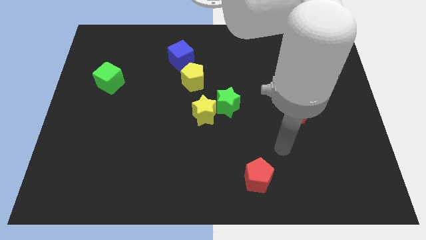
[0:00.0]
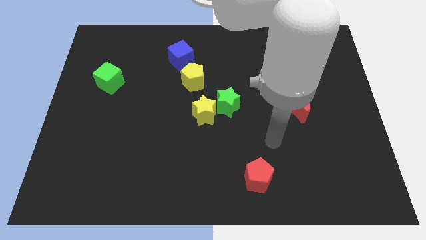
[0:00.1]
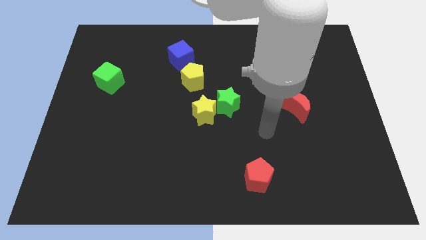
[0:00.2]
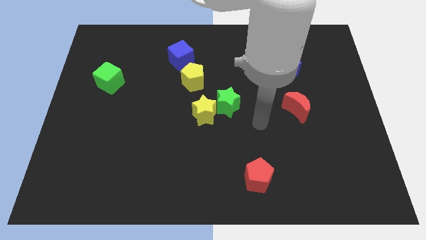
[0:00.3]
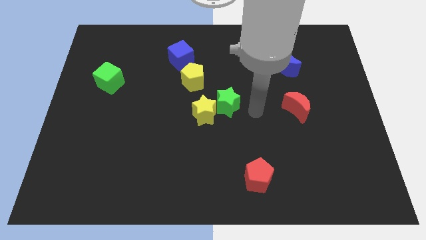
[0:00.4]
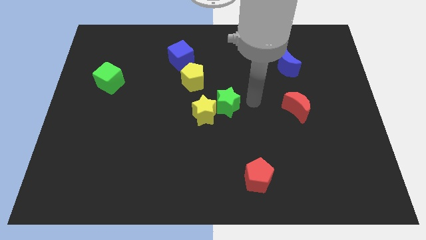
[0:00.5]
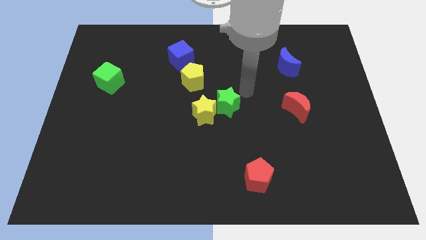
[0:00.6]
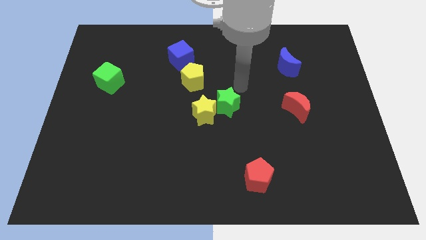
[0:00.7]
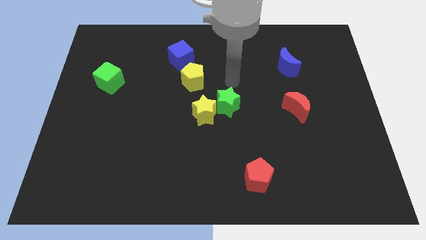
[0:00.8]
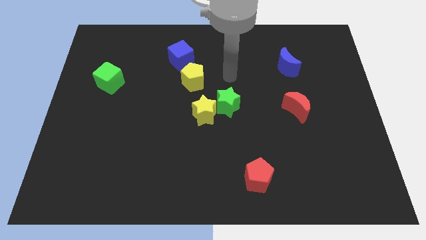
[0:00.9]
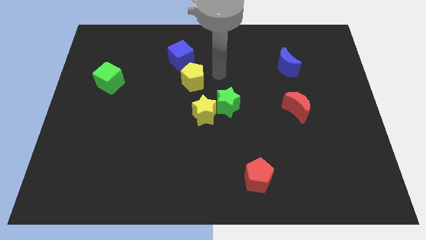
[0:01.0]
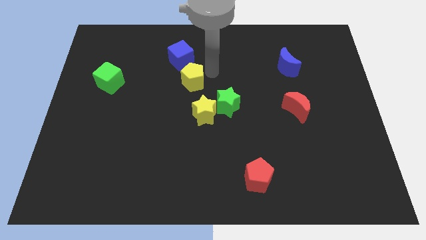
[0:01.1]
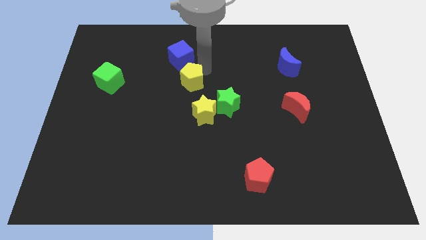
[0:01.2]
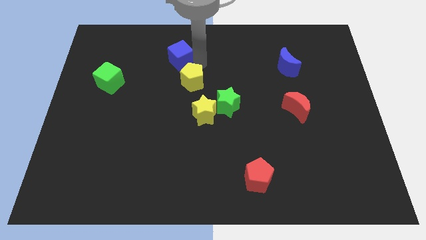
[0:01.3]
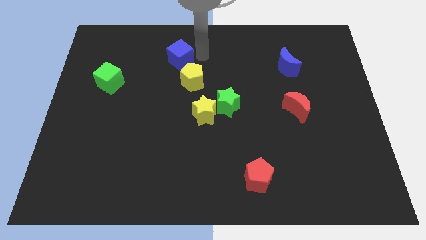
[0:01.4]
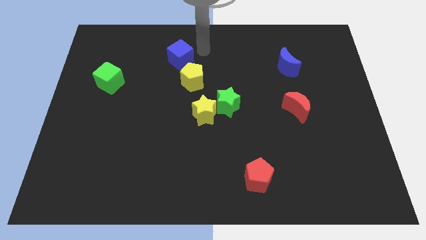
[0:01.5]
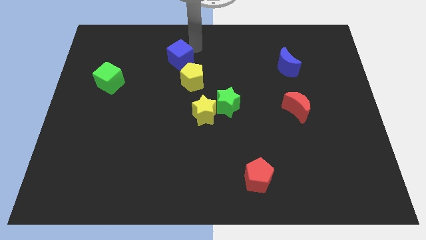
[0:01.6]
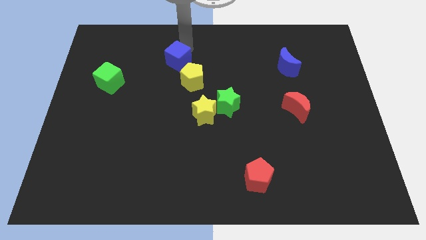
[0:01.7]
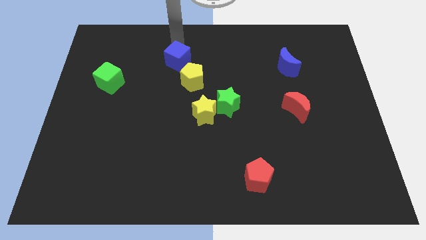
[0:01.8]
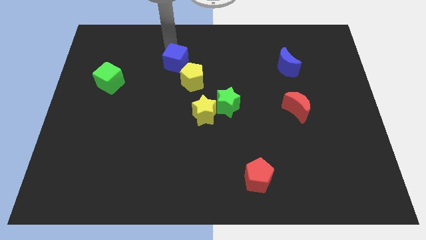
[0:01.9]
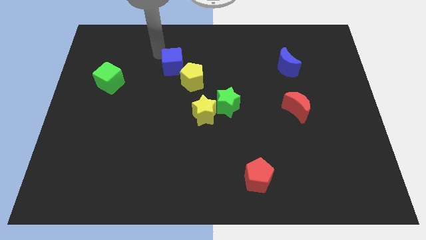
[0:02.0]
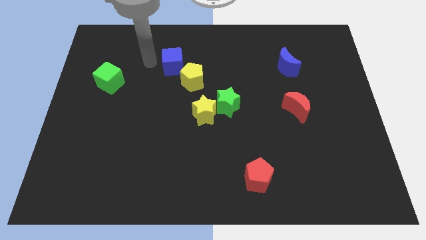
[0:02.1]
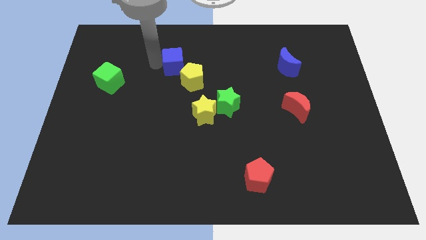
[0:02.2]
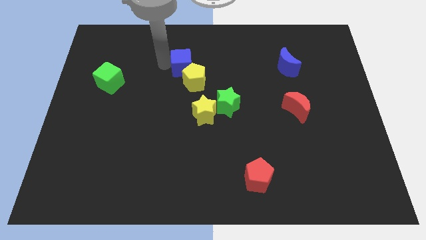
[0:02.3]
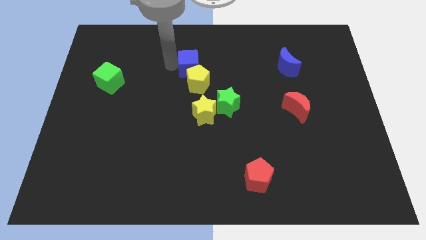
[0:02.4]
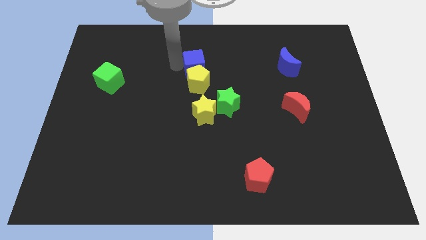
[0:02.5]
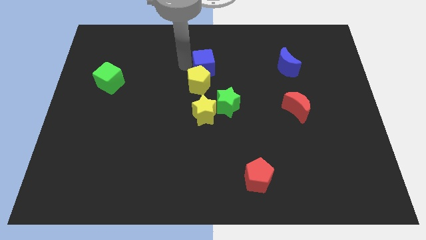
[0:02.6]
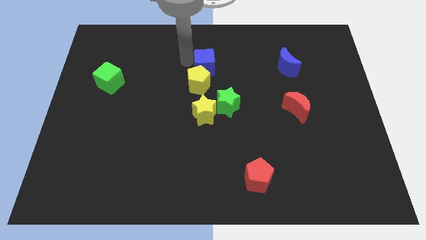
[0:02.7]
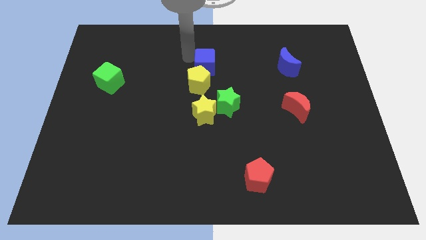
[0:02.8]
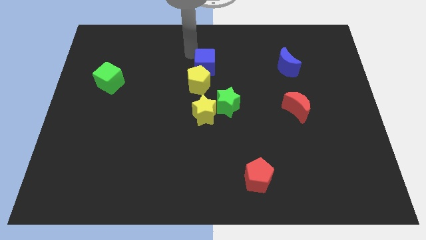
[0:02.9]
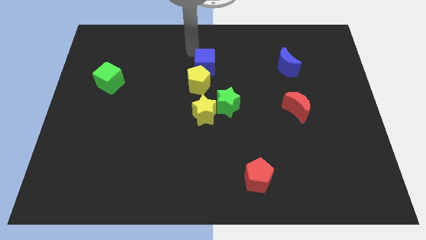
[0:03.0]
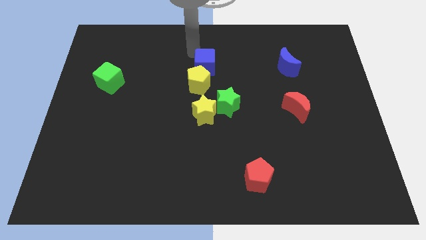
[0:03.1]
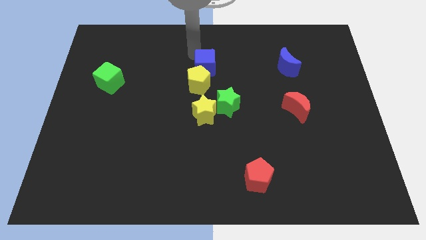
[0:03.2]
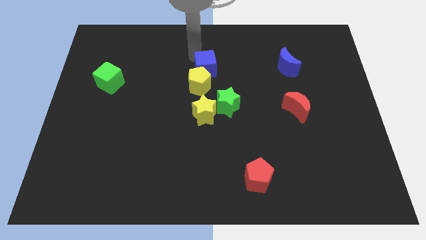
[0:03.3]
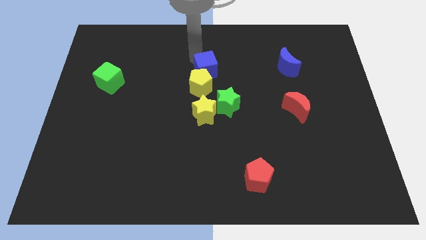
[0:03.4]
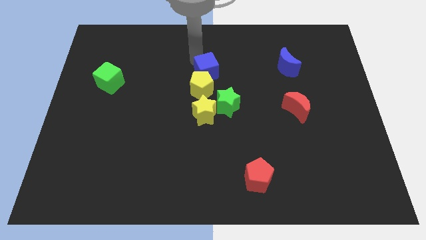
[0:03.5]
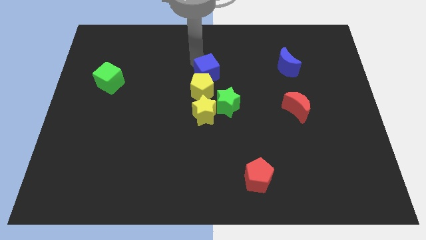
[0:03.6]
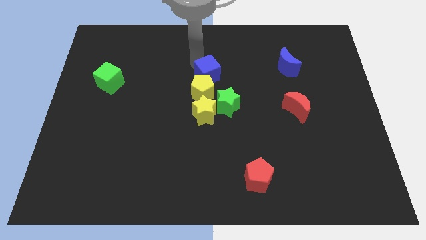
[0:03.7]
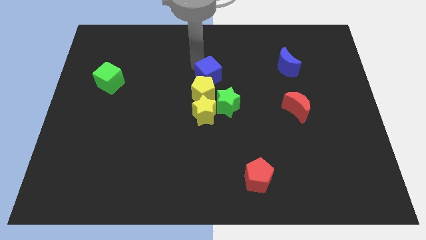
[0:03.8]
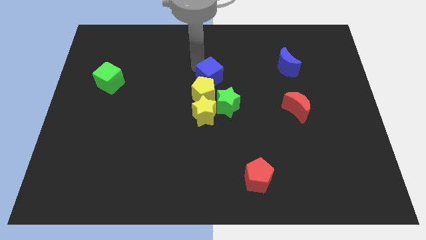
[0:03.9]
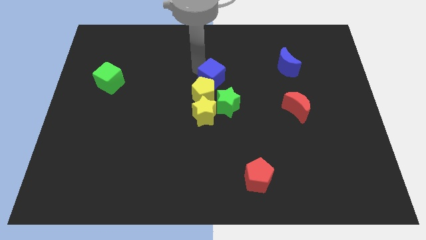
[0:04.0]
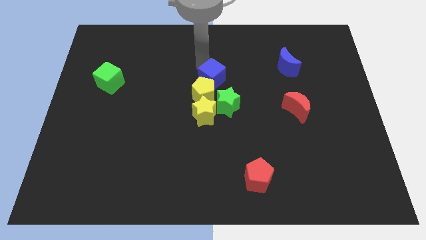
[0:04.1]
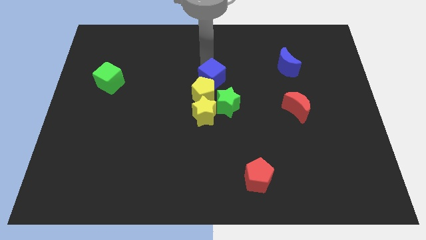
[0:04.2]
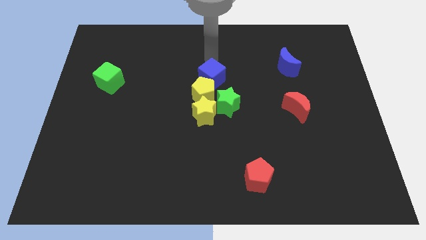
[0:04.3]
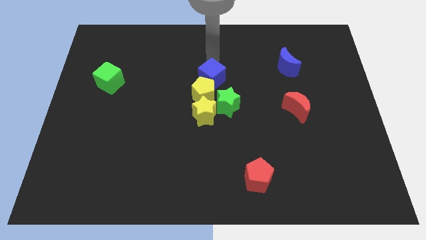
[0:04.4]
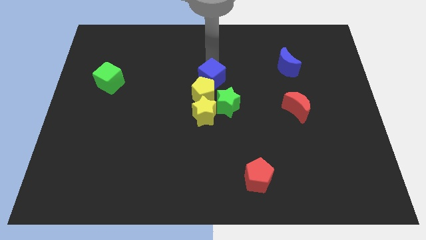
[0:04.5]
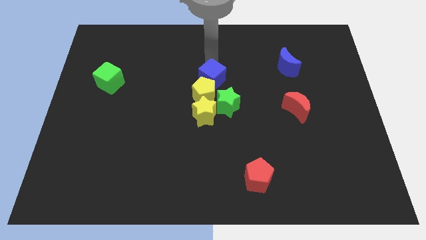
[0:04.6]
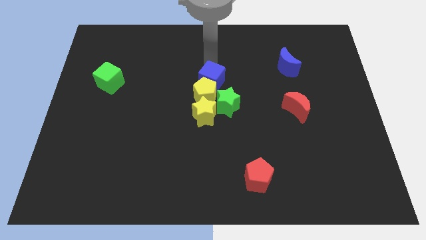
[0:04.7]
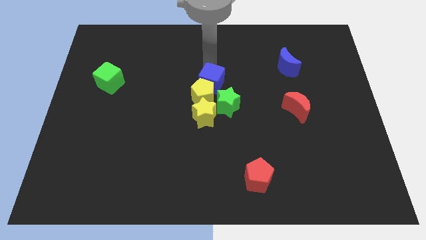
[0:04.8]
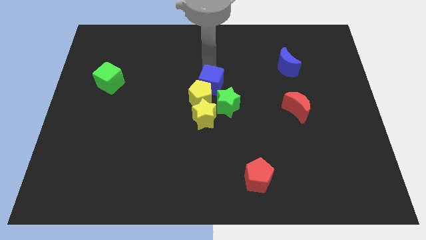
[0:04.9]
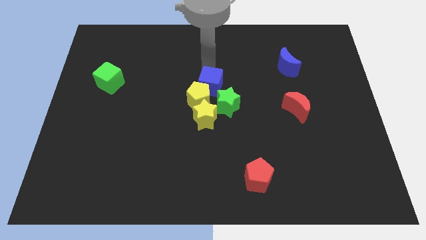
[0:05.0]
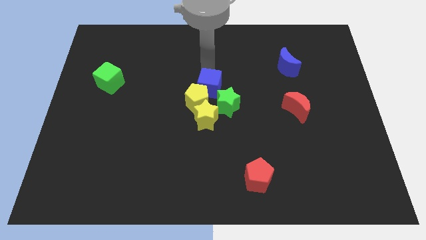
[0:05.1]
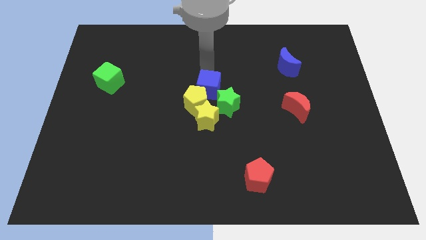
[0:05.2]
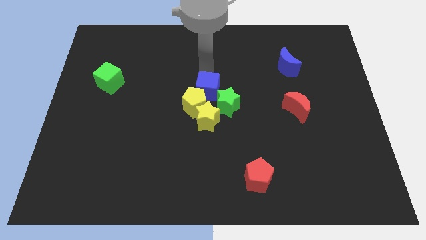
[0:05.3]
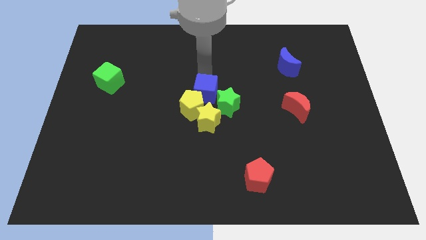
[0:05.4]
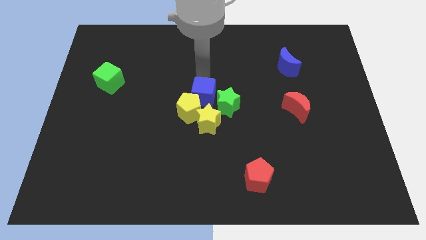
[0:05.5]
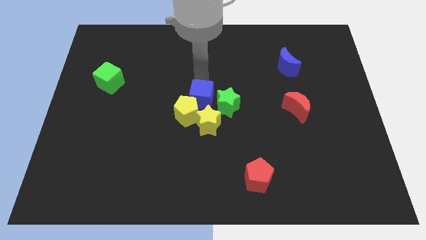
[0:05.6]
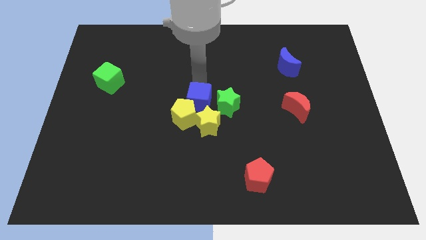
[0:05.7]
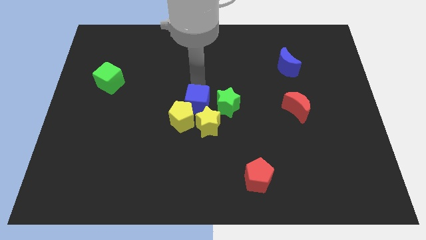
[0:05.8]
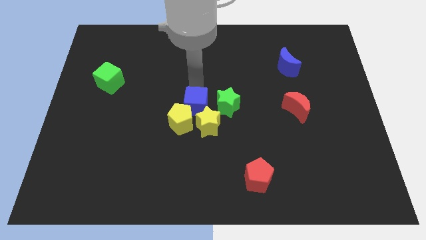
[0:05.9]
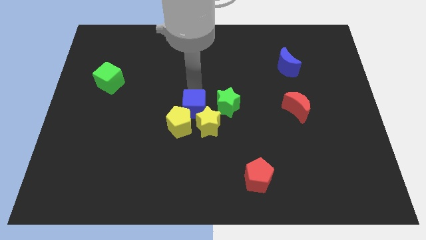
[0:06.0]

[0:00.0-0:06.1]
slide the blue cube close to the yellow star

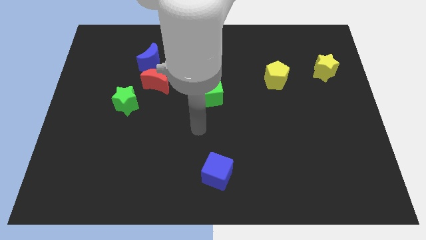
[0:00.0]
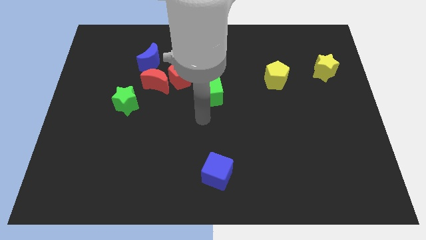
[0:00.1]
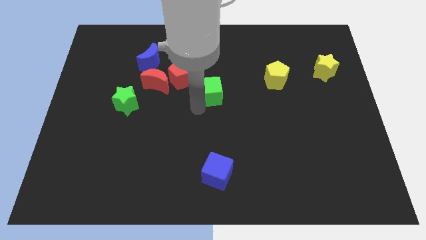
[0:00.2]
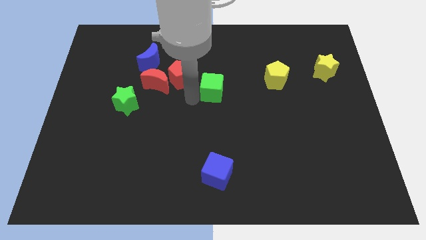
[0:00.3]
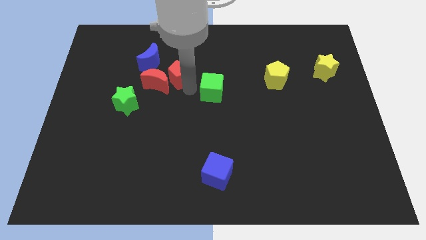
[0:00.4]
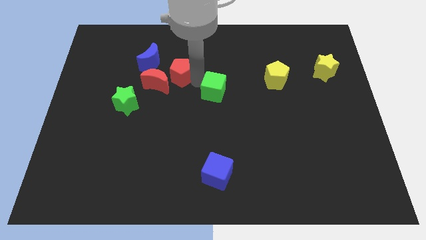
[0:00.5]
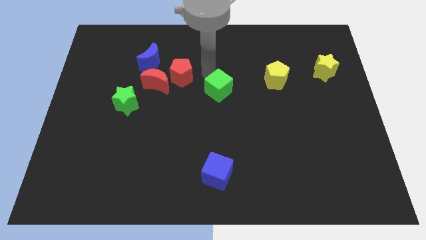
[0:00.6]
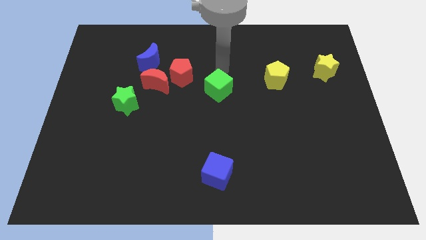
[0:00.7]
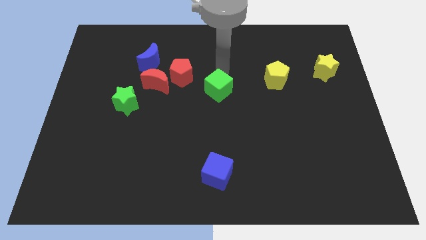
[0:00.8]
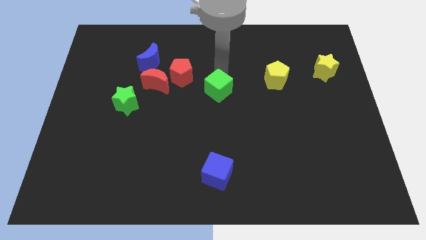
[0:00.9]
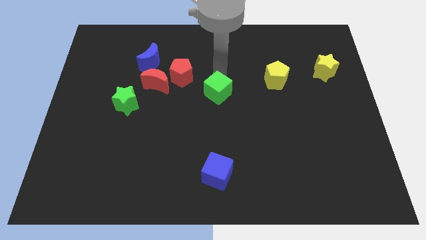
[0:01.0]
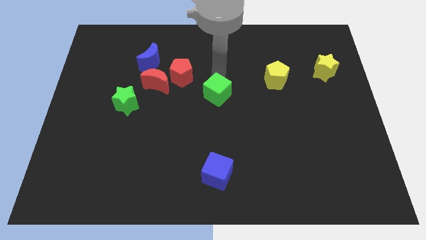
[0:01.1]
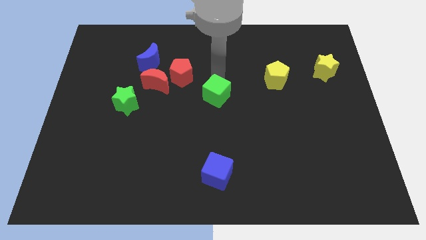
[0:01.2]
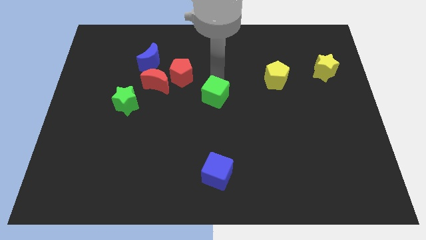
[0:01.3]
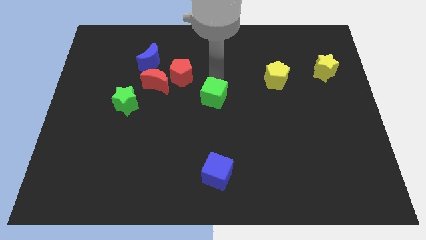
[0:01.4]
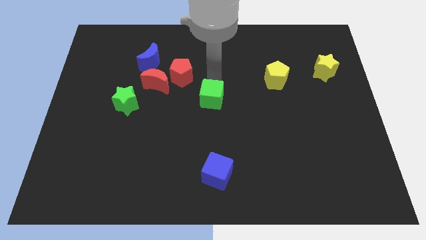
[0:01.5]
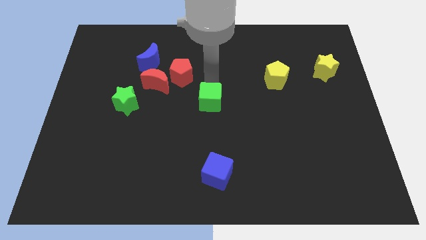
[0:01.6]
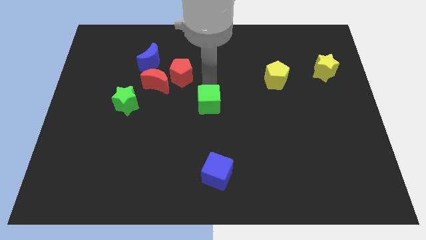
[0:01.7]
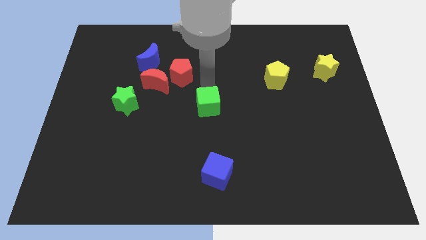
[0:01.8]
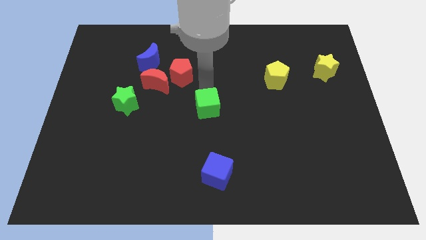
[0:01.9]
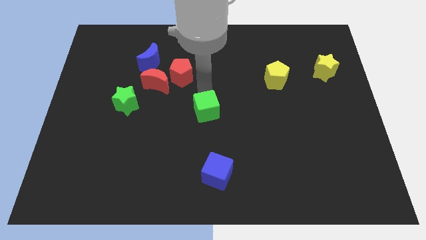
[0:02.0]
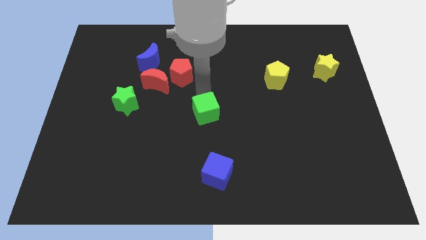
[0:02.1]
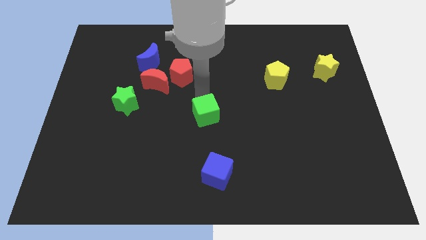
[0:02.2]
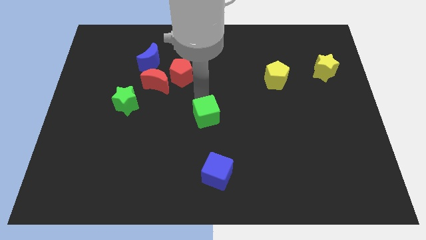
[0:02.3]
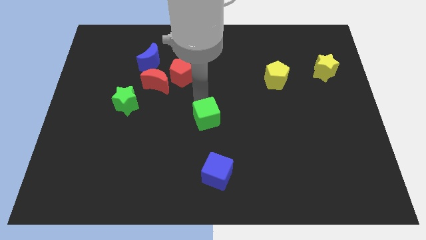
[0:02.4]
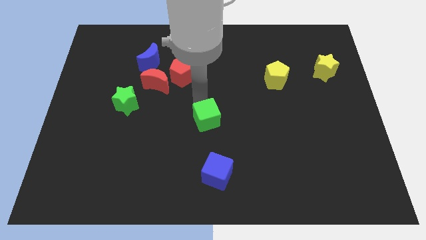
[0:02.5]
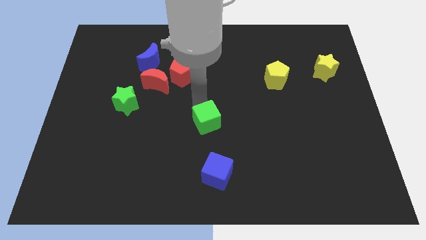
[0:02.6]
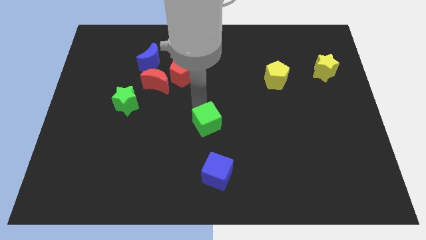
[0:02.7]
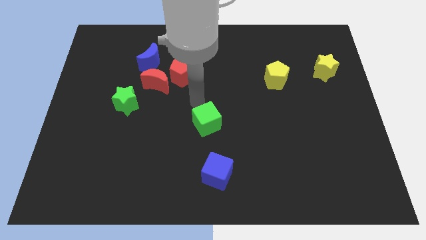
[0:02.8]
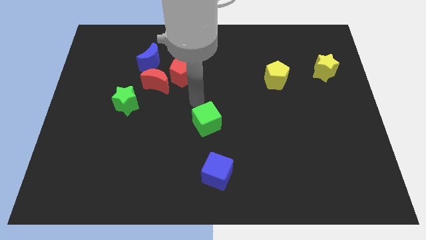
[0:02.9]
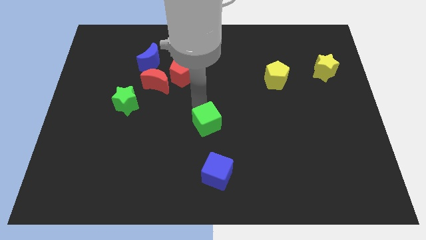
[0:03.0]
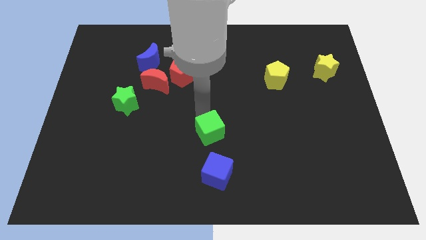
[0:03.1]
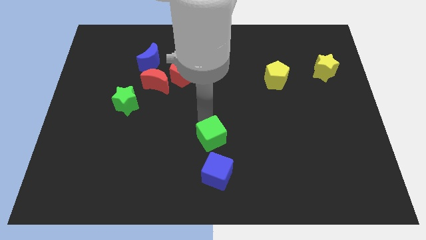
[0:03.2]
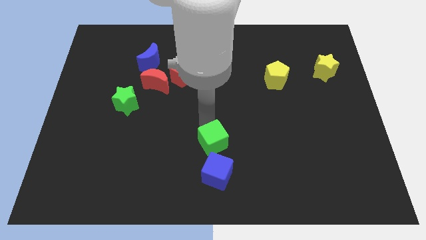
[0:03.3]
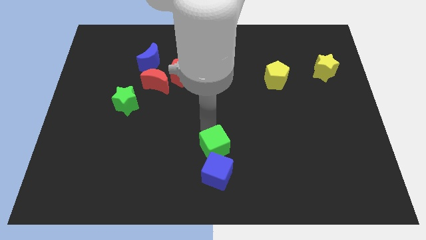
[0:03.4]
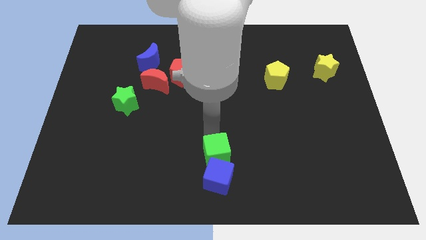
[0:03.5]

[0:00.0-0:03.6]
push the green cube to the blue cube
